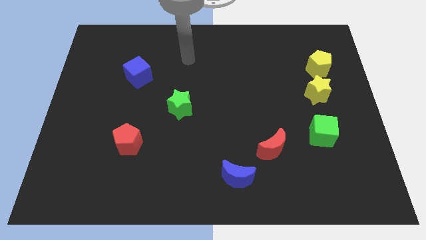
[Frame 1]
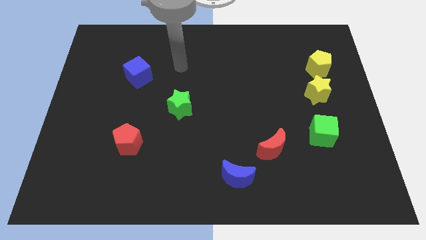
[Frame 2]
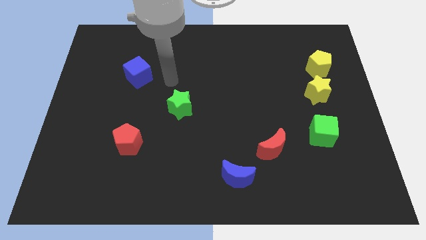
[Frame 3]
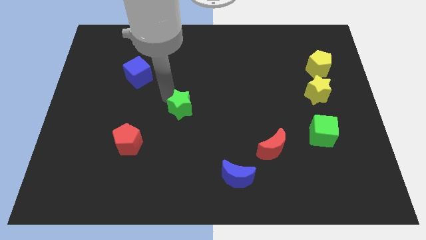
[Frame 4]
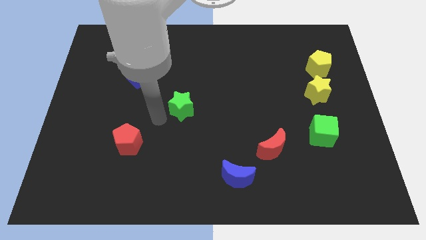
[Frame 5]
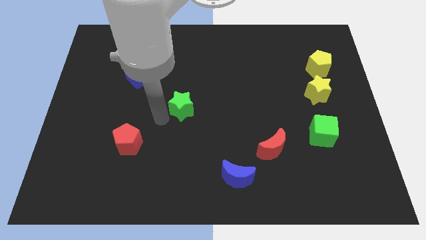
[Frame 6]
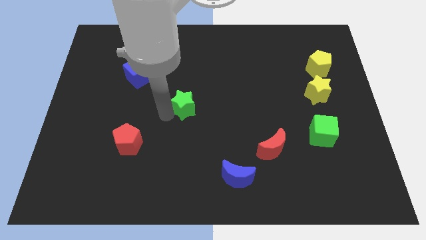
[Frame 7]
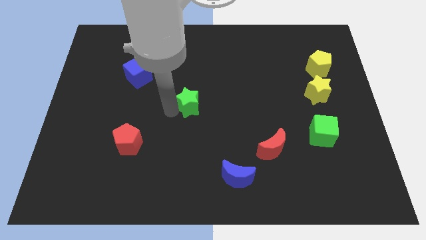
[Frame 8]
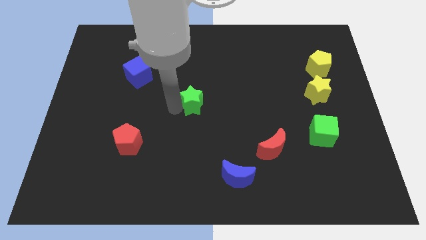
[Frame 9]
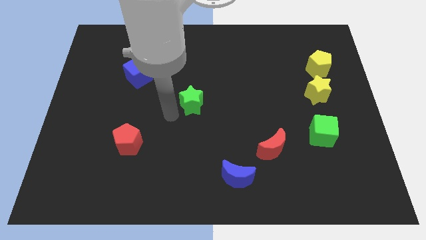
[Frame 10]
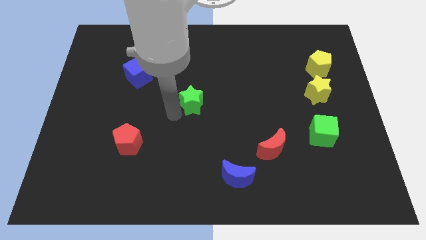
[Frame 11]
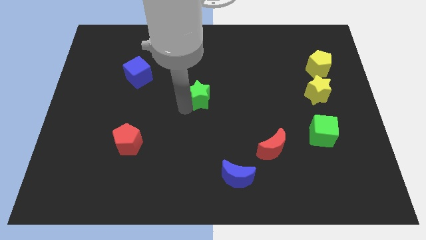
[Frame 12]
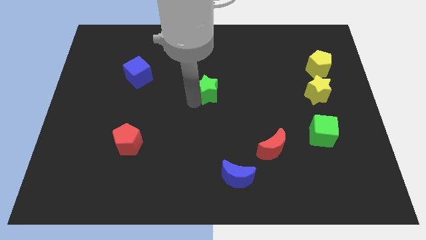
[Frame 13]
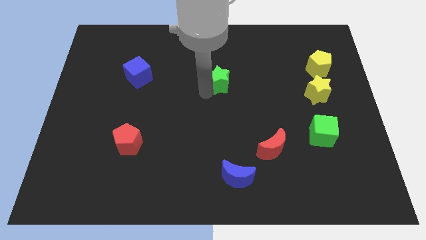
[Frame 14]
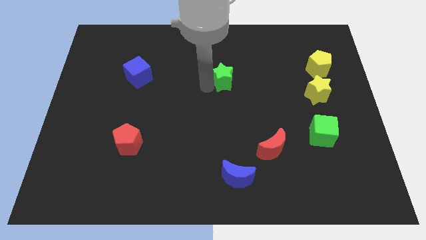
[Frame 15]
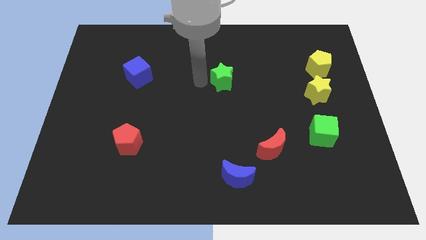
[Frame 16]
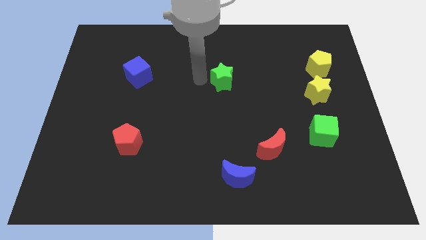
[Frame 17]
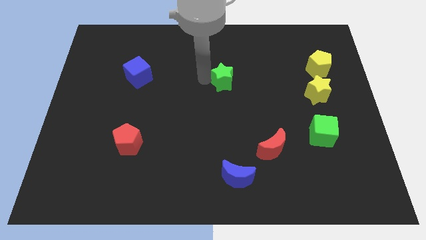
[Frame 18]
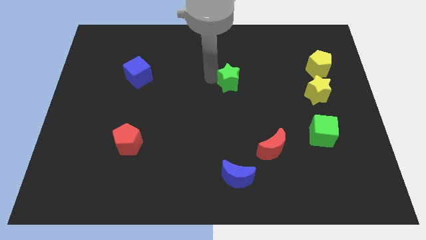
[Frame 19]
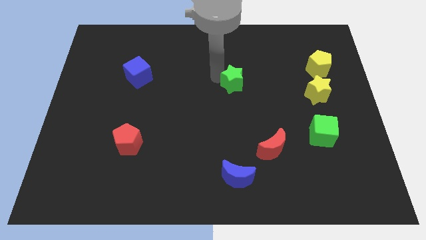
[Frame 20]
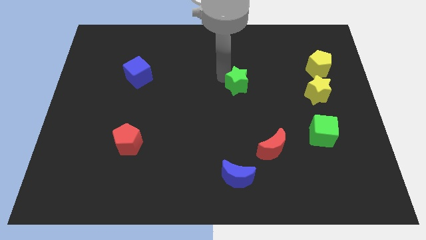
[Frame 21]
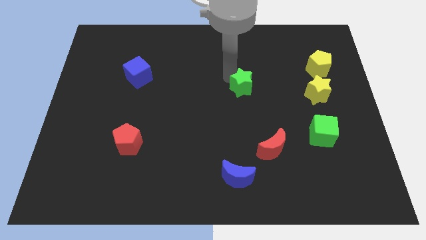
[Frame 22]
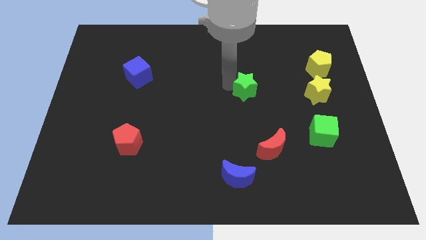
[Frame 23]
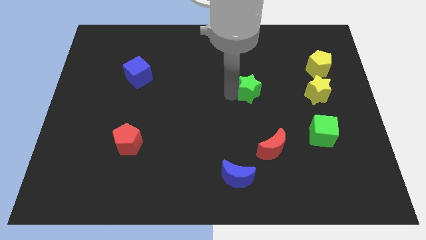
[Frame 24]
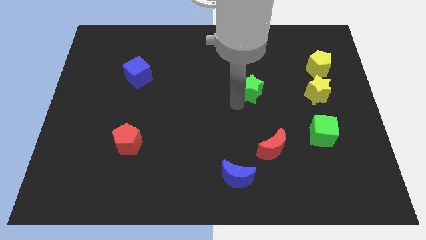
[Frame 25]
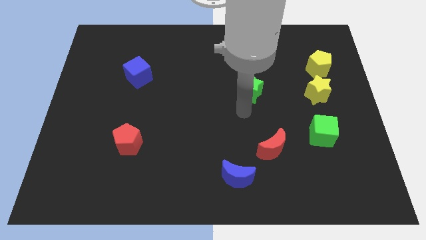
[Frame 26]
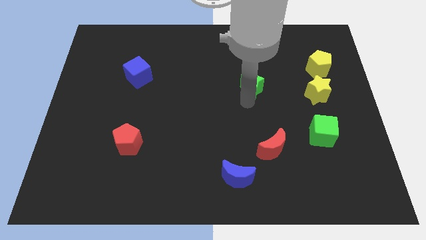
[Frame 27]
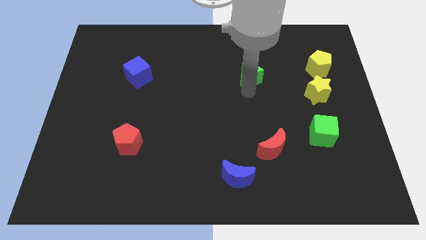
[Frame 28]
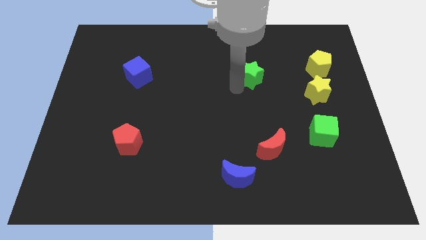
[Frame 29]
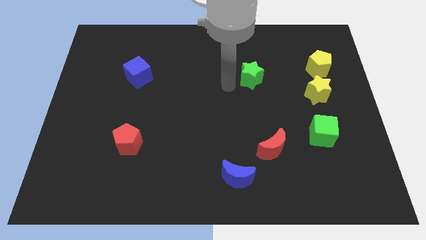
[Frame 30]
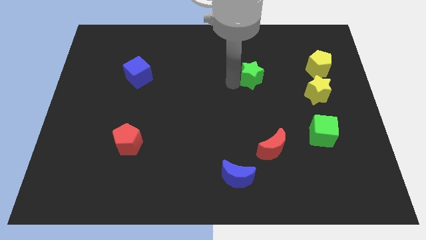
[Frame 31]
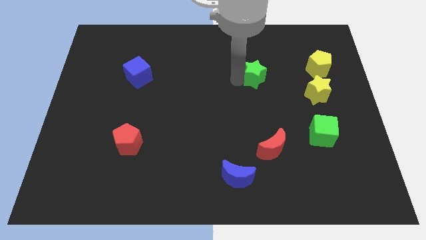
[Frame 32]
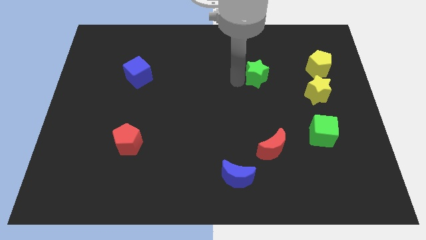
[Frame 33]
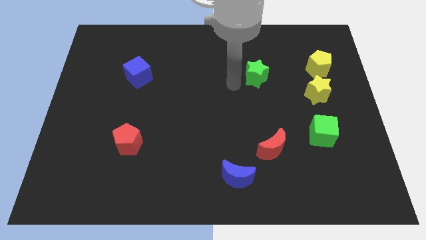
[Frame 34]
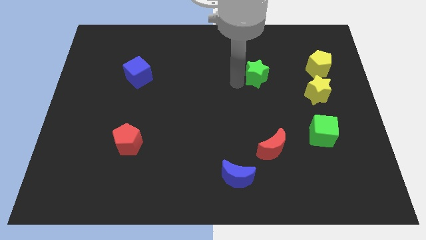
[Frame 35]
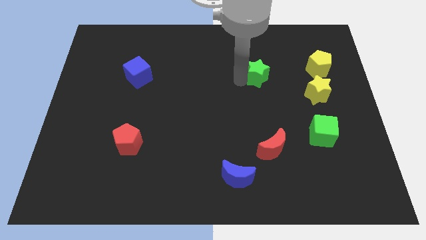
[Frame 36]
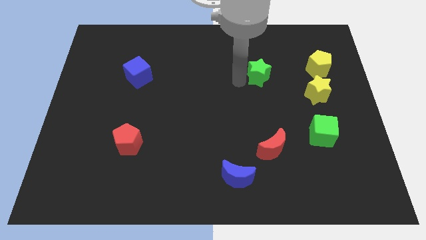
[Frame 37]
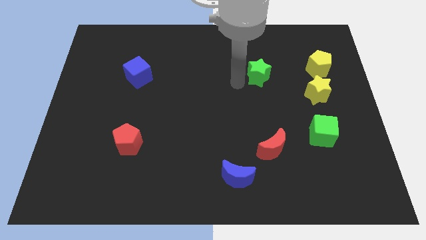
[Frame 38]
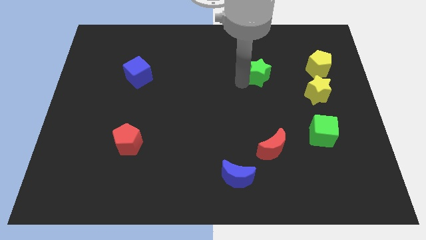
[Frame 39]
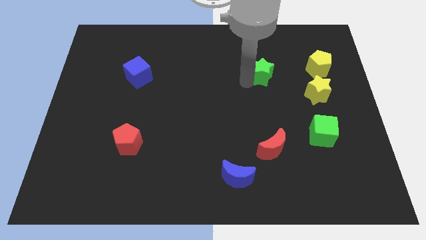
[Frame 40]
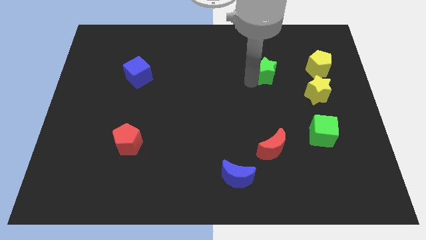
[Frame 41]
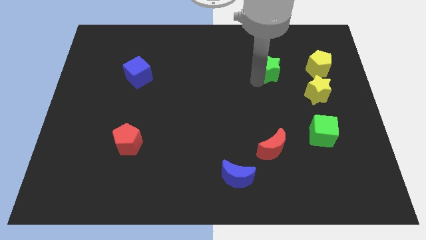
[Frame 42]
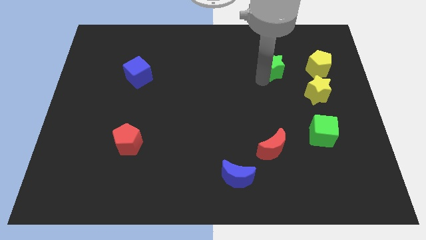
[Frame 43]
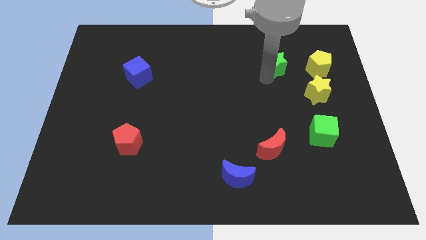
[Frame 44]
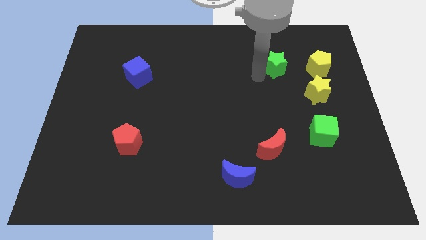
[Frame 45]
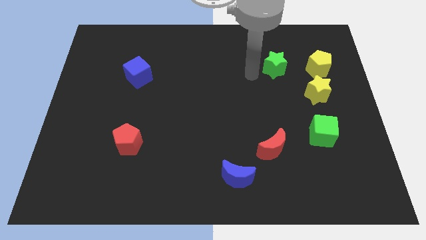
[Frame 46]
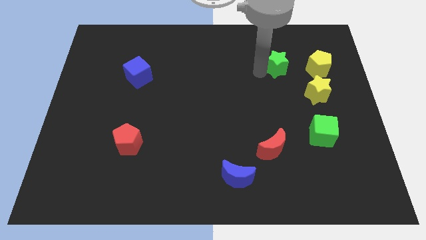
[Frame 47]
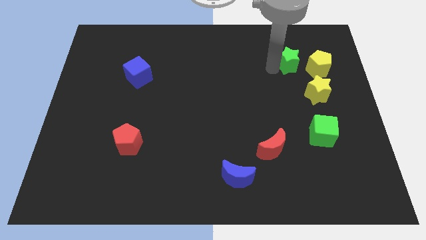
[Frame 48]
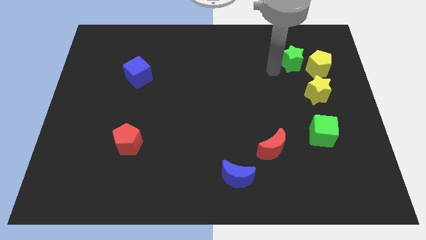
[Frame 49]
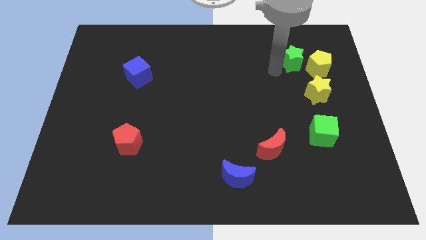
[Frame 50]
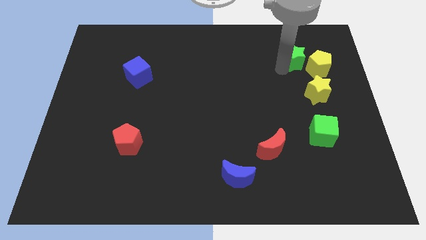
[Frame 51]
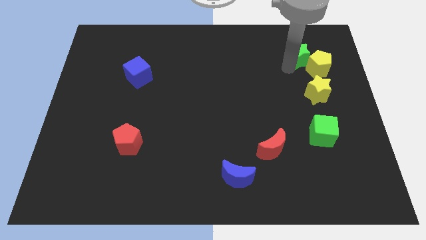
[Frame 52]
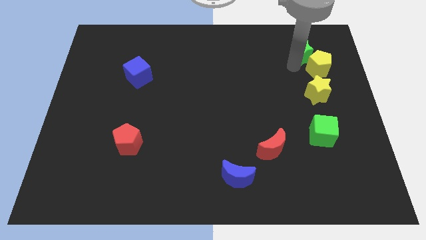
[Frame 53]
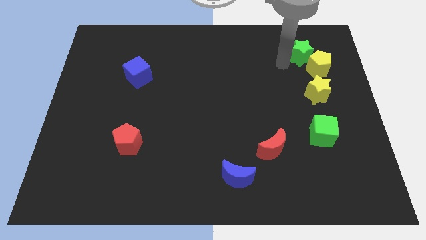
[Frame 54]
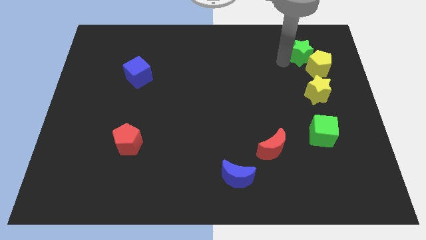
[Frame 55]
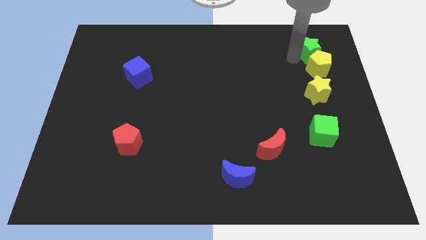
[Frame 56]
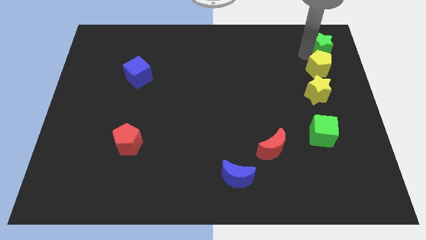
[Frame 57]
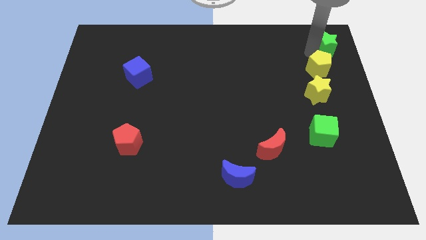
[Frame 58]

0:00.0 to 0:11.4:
move the green star to the top right
